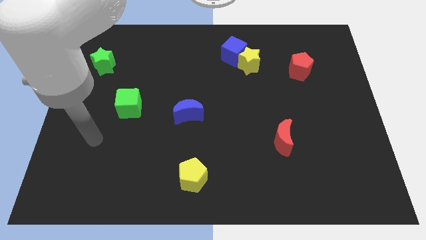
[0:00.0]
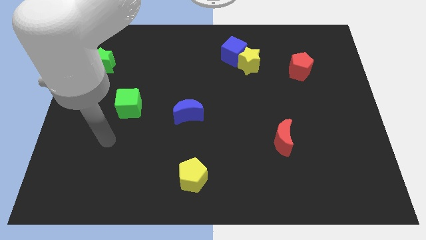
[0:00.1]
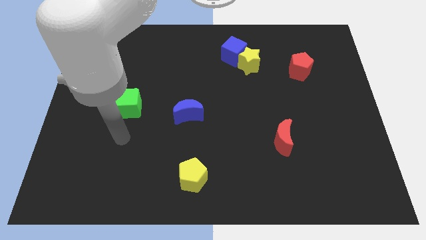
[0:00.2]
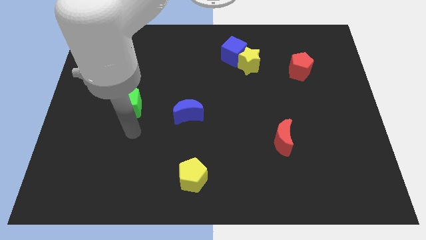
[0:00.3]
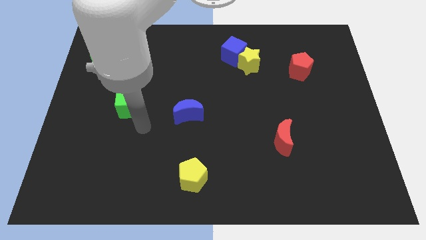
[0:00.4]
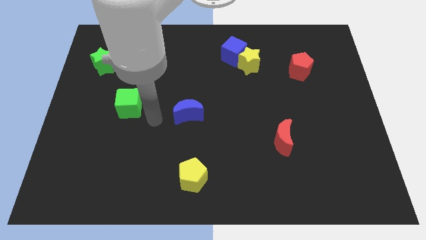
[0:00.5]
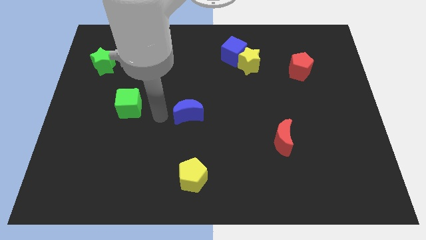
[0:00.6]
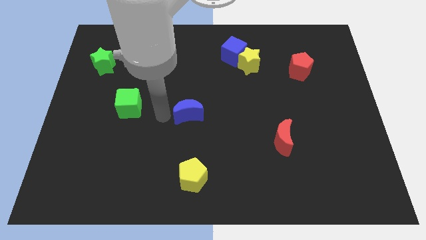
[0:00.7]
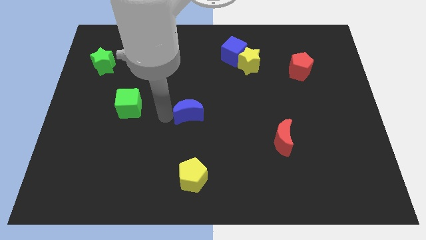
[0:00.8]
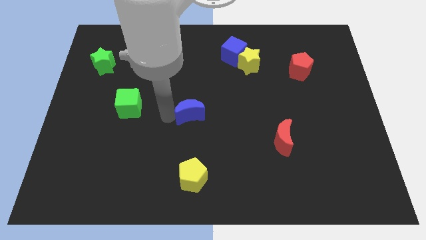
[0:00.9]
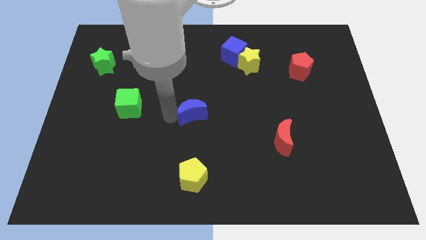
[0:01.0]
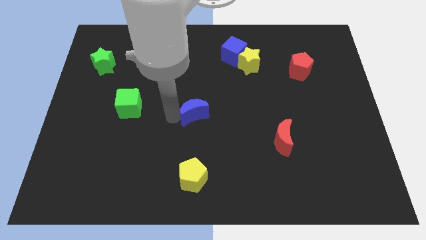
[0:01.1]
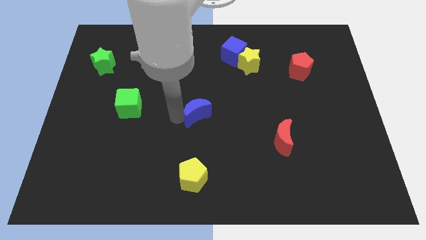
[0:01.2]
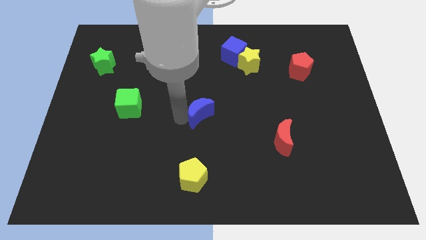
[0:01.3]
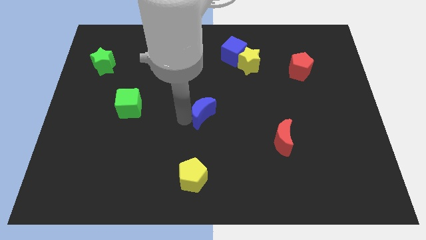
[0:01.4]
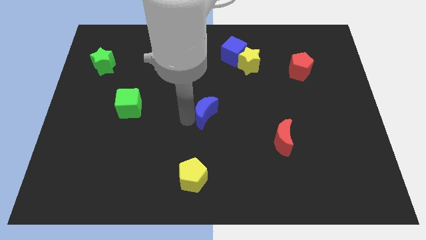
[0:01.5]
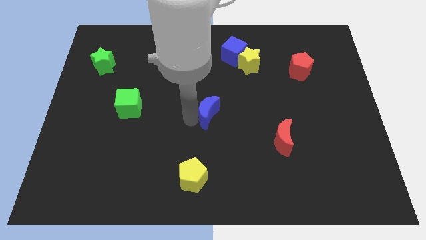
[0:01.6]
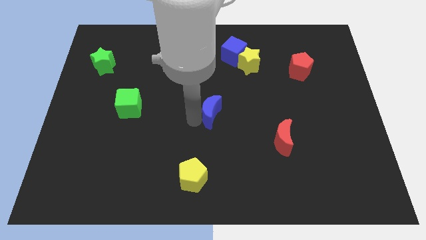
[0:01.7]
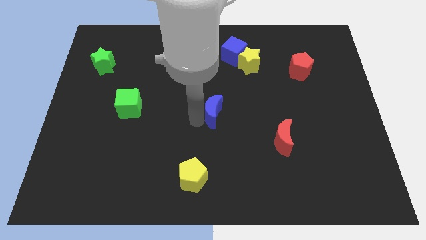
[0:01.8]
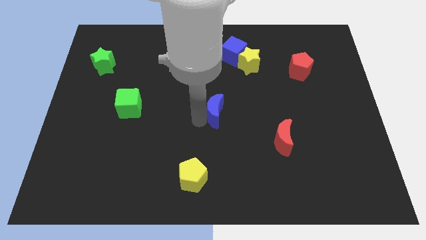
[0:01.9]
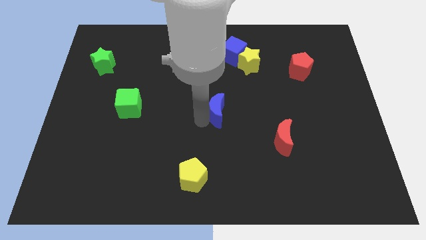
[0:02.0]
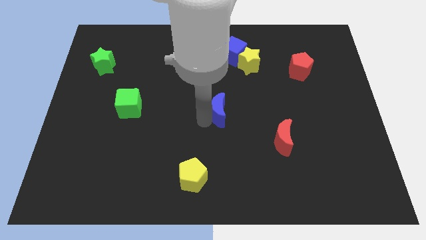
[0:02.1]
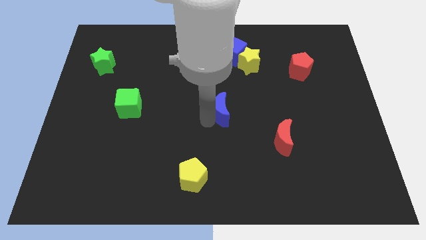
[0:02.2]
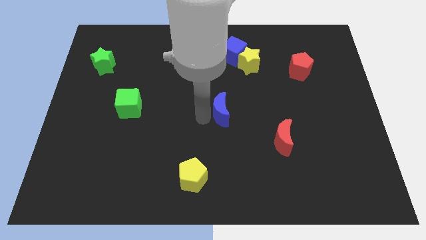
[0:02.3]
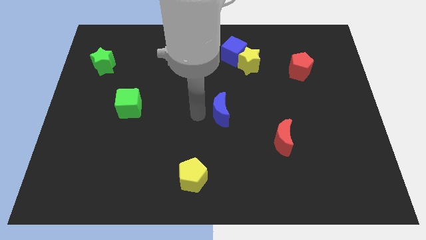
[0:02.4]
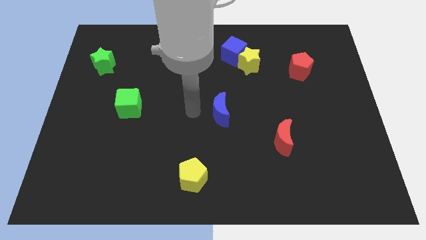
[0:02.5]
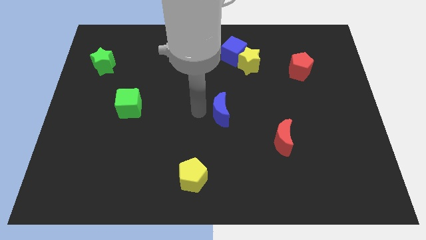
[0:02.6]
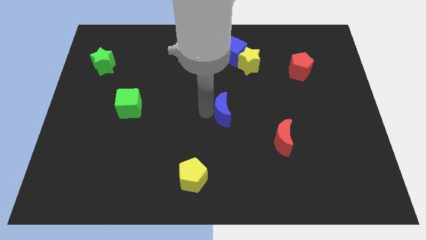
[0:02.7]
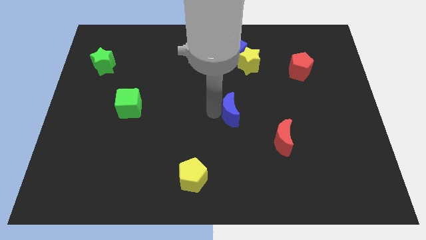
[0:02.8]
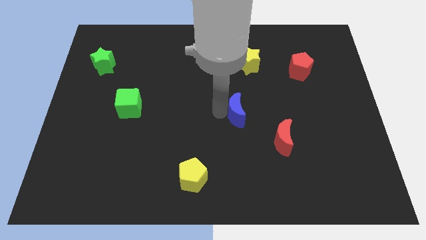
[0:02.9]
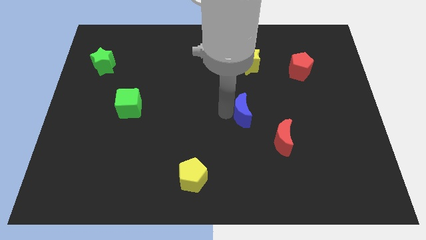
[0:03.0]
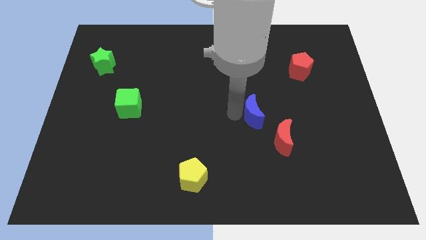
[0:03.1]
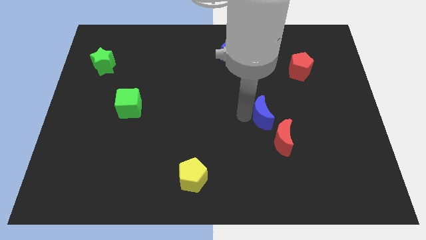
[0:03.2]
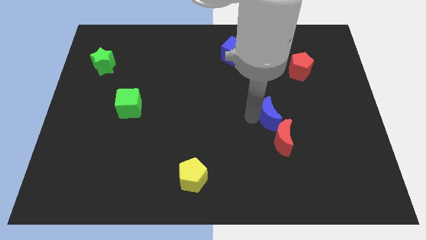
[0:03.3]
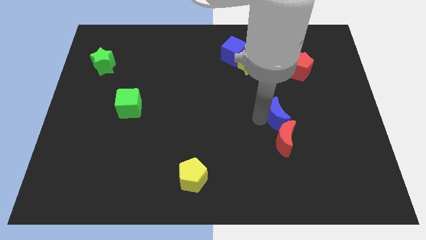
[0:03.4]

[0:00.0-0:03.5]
push the blue moon to the right

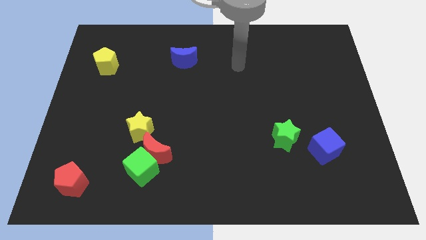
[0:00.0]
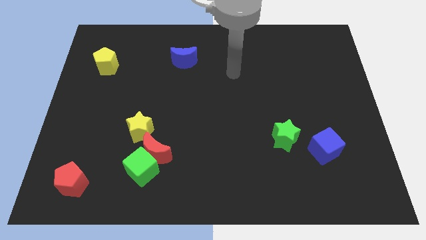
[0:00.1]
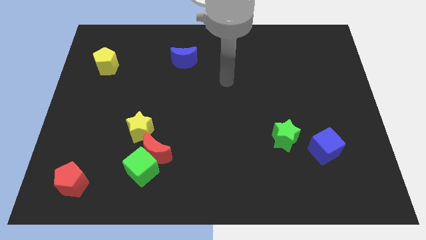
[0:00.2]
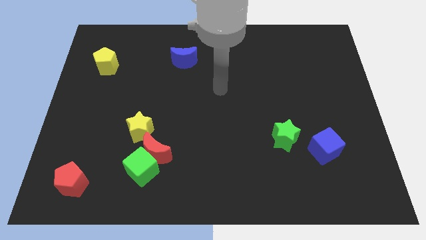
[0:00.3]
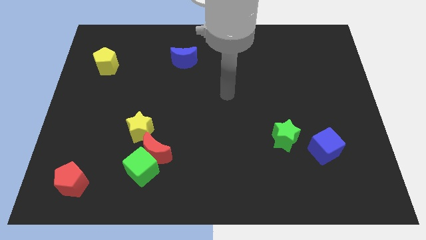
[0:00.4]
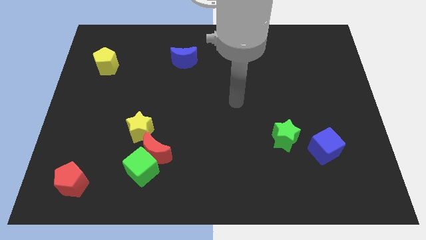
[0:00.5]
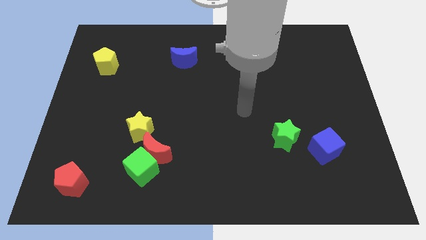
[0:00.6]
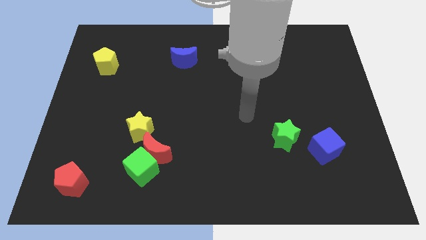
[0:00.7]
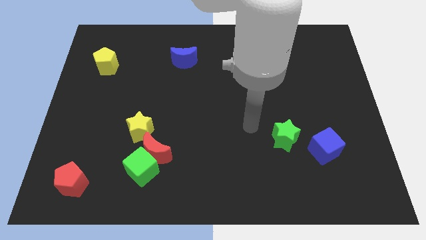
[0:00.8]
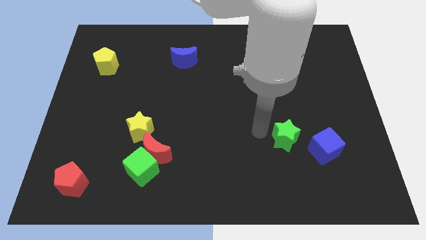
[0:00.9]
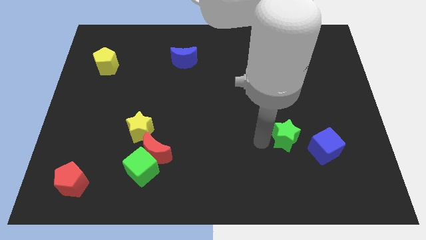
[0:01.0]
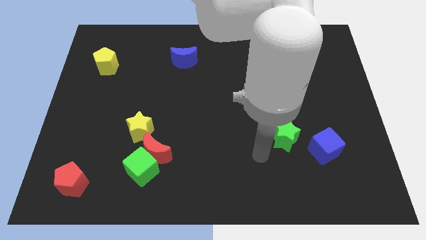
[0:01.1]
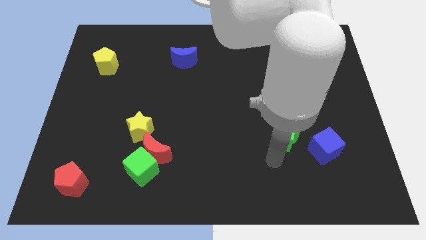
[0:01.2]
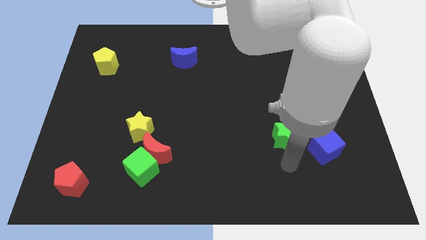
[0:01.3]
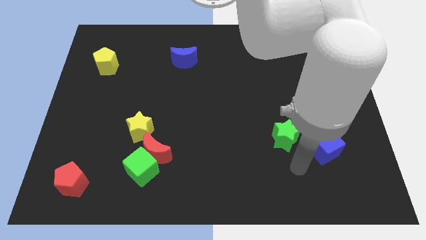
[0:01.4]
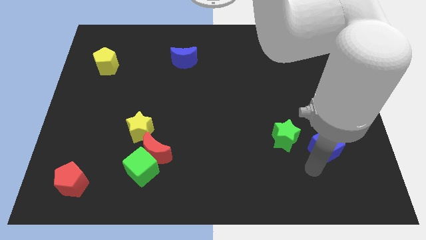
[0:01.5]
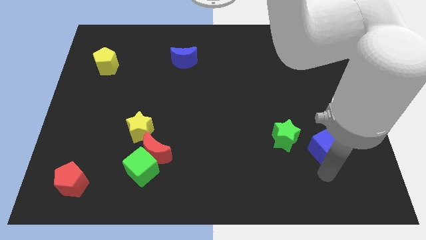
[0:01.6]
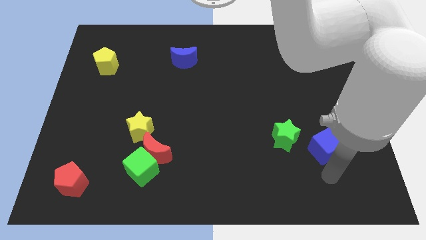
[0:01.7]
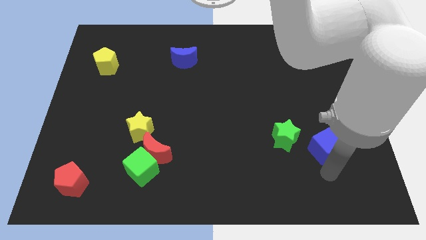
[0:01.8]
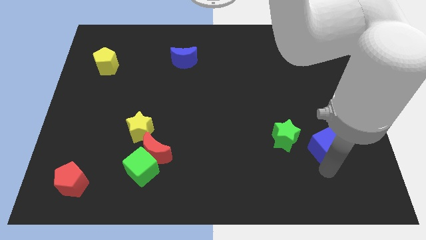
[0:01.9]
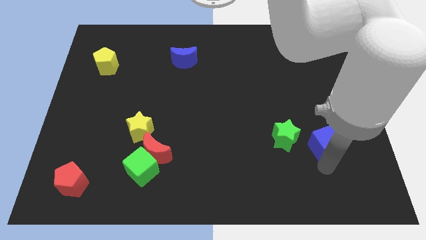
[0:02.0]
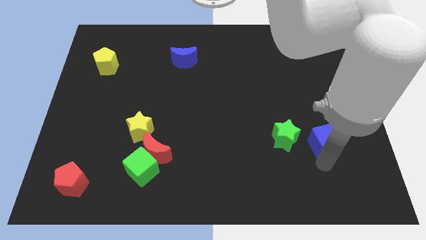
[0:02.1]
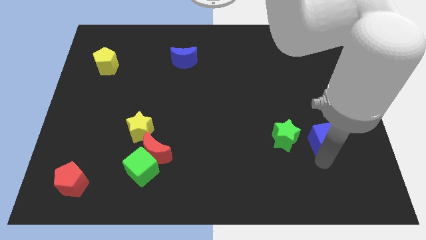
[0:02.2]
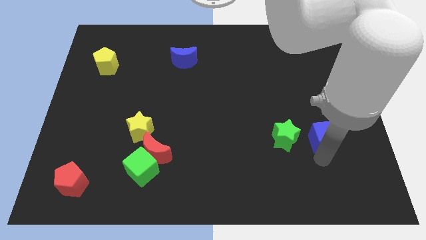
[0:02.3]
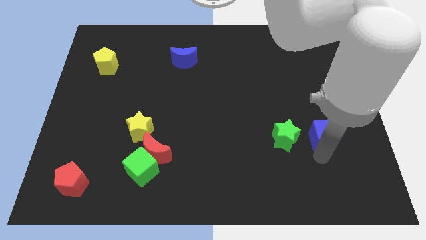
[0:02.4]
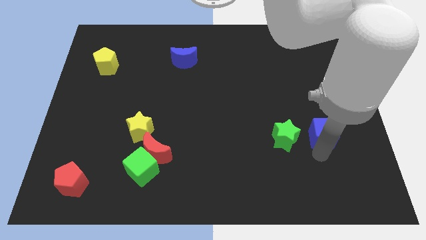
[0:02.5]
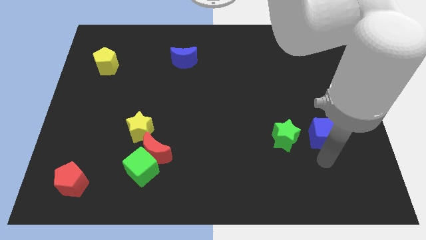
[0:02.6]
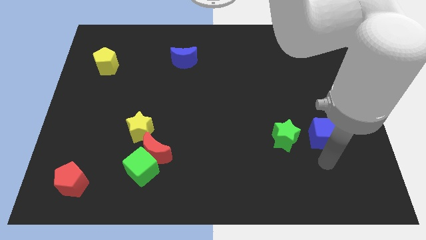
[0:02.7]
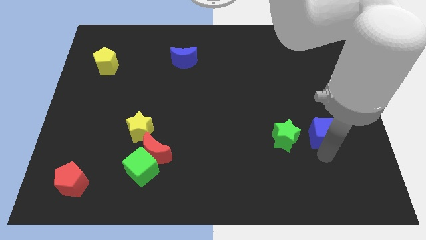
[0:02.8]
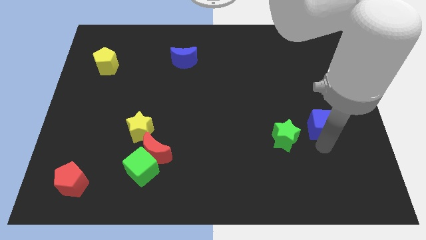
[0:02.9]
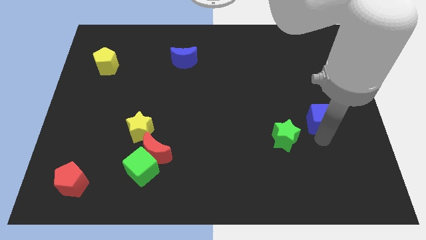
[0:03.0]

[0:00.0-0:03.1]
push the blue cube up a little bit

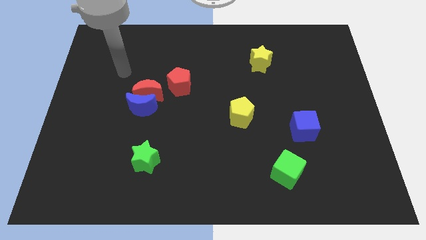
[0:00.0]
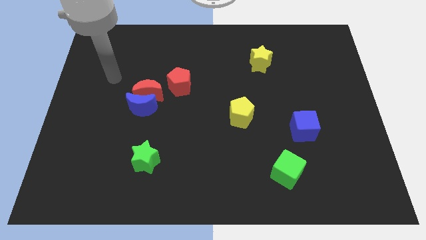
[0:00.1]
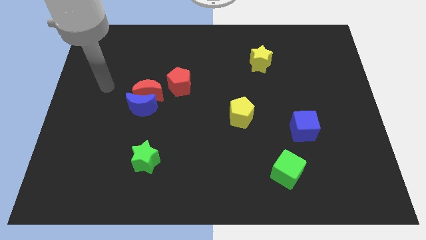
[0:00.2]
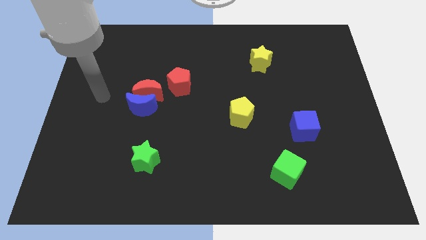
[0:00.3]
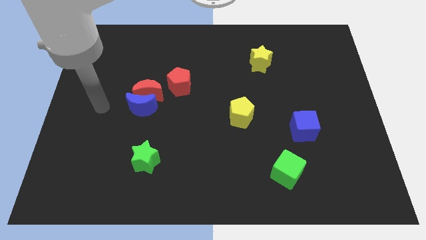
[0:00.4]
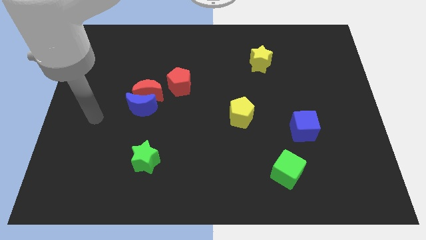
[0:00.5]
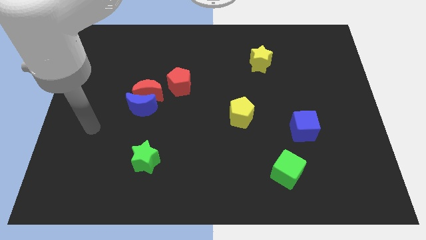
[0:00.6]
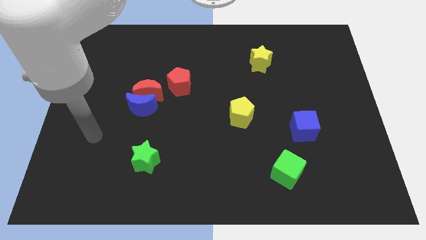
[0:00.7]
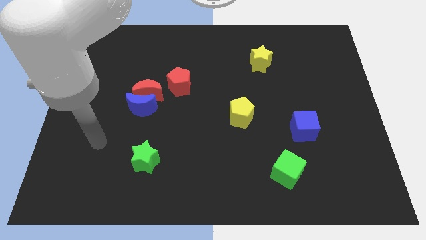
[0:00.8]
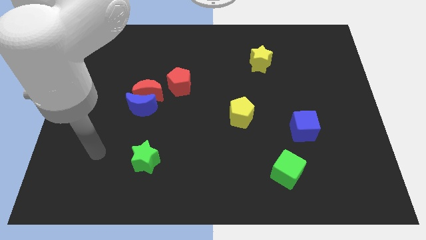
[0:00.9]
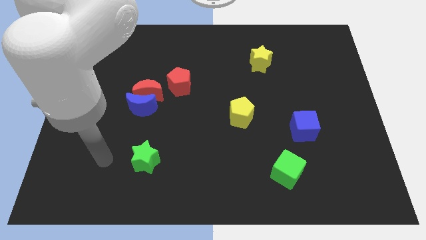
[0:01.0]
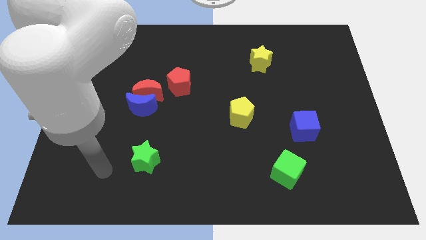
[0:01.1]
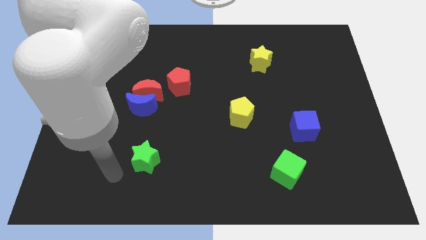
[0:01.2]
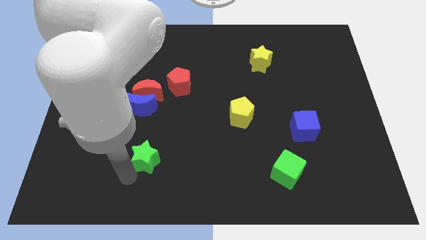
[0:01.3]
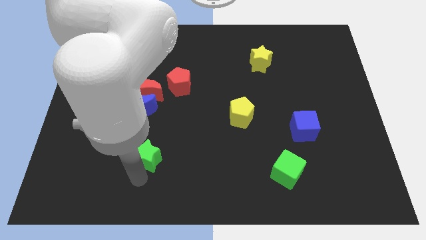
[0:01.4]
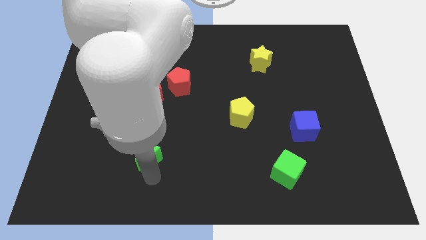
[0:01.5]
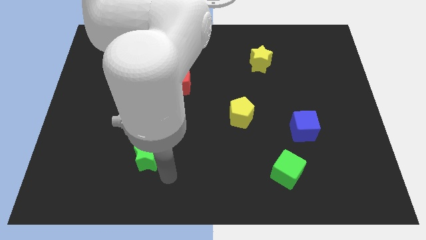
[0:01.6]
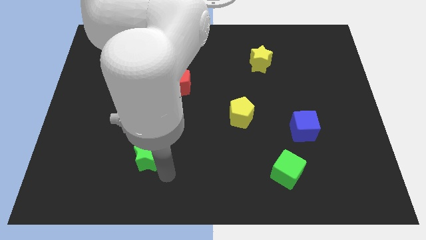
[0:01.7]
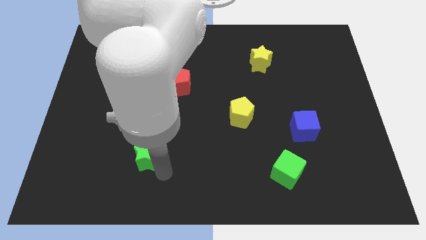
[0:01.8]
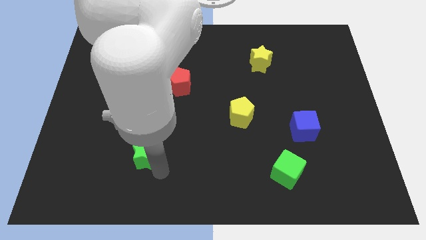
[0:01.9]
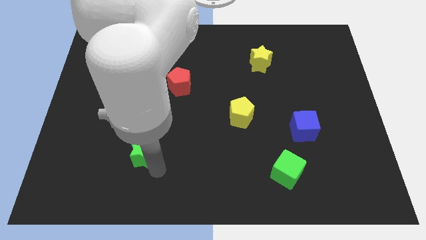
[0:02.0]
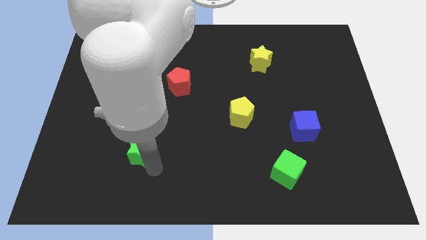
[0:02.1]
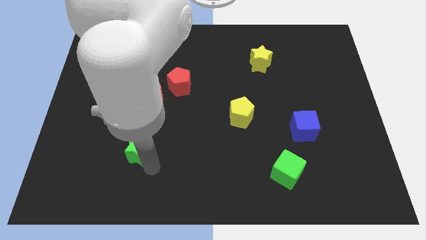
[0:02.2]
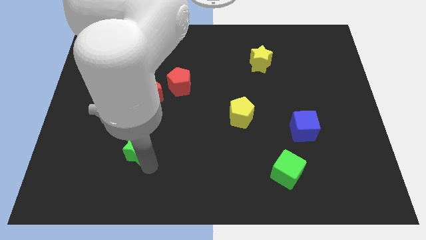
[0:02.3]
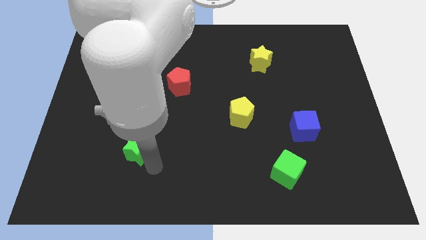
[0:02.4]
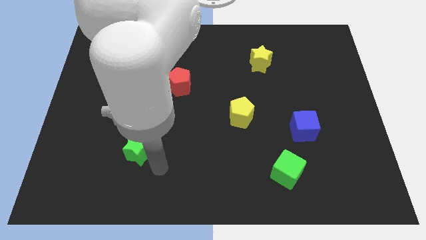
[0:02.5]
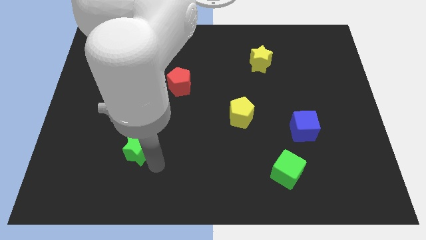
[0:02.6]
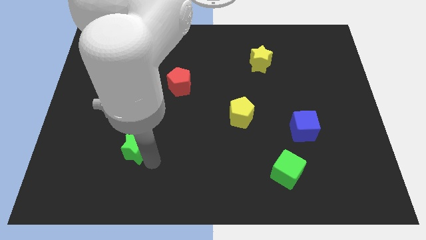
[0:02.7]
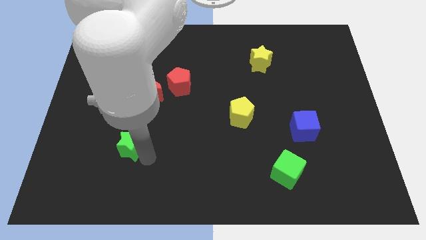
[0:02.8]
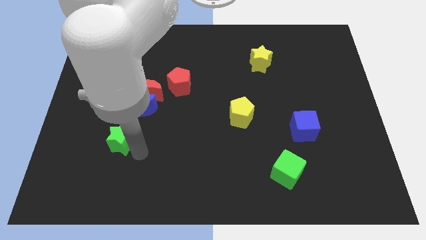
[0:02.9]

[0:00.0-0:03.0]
slide the green star upwards and left diagonally a bit
